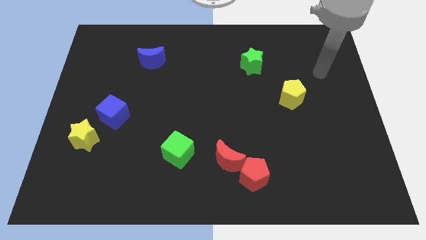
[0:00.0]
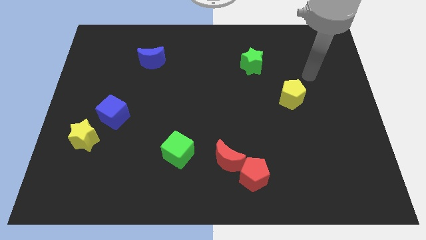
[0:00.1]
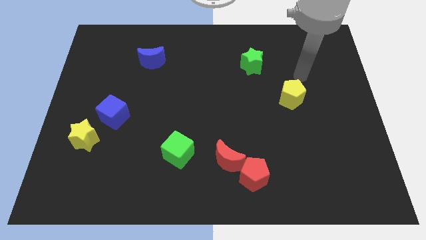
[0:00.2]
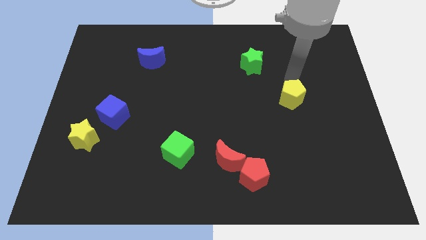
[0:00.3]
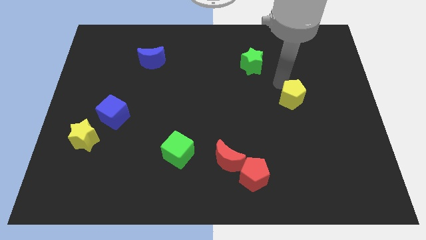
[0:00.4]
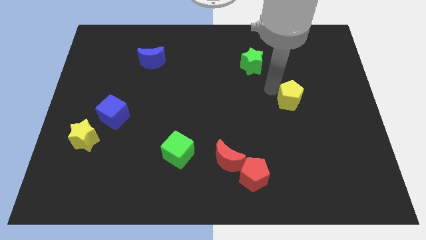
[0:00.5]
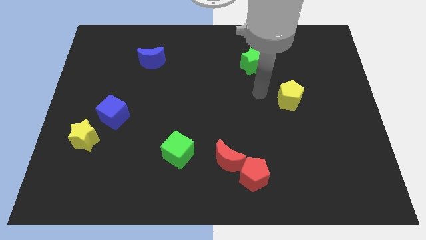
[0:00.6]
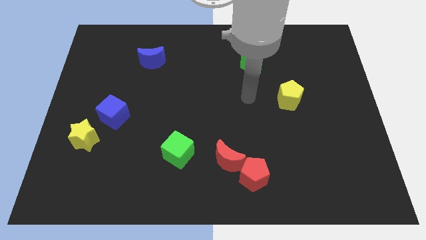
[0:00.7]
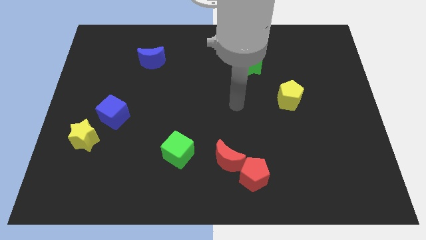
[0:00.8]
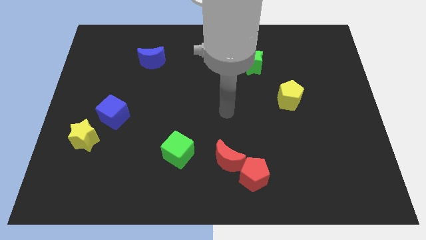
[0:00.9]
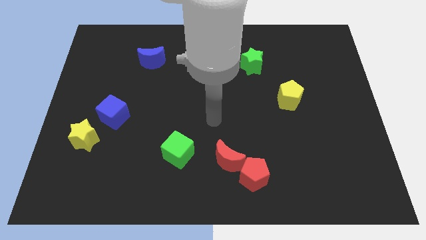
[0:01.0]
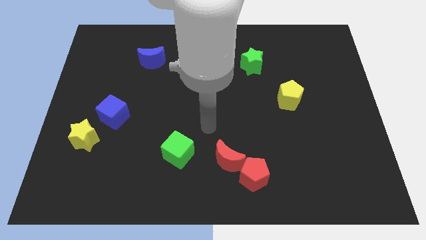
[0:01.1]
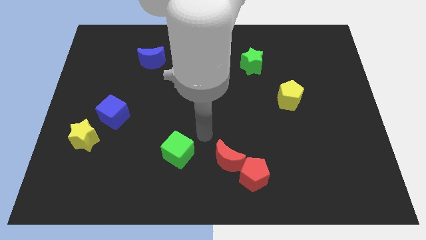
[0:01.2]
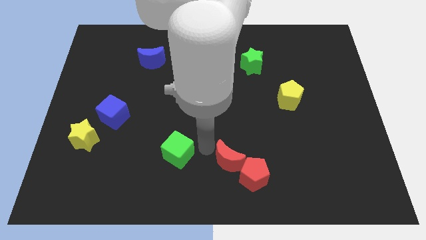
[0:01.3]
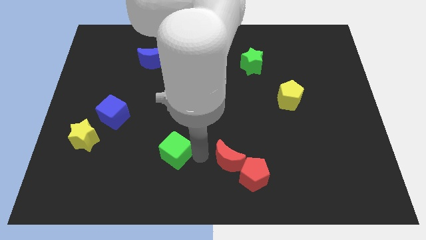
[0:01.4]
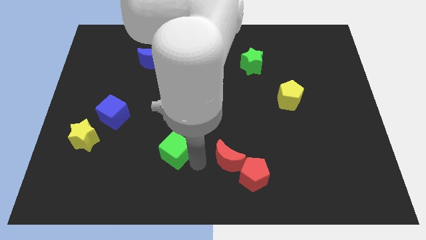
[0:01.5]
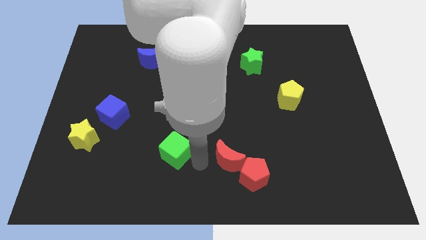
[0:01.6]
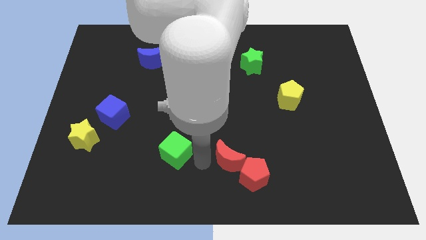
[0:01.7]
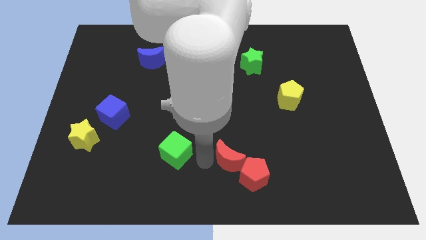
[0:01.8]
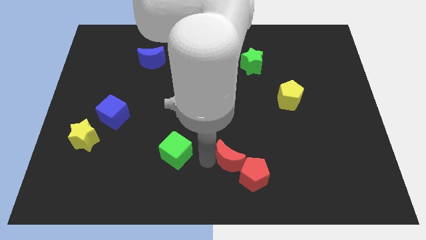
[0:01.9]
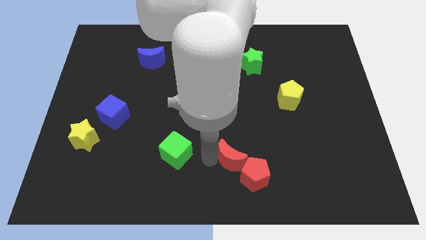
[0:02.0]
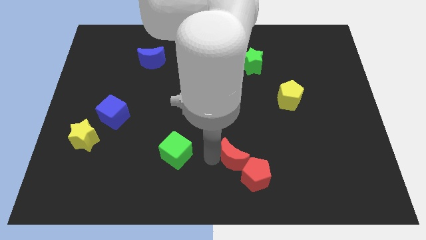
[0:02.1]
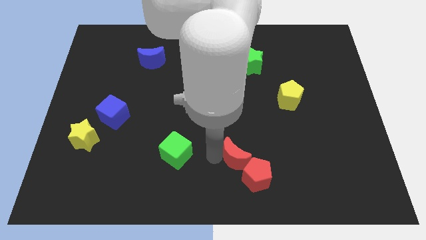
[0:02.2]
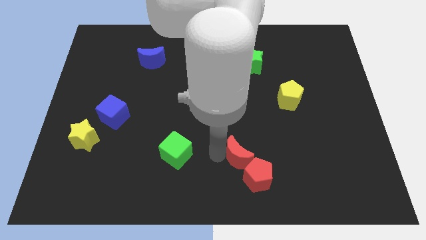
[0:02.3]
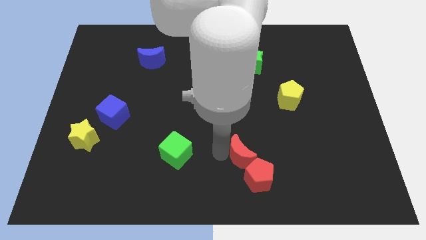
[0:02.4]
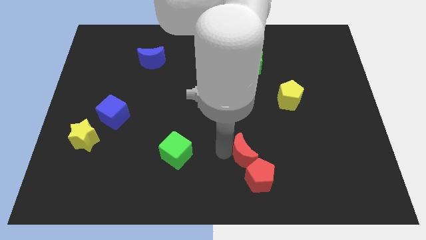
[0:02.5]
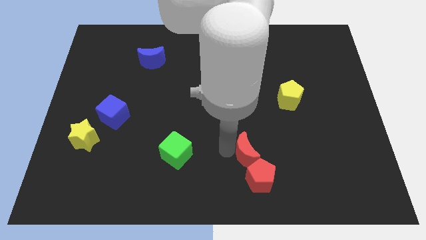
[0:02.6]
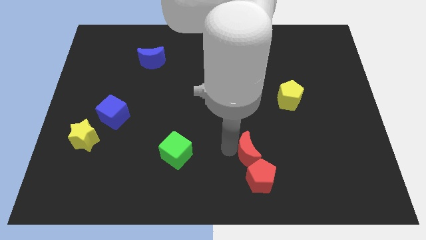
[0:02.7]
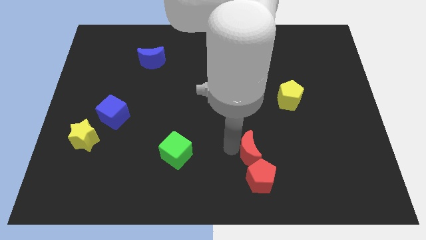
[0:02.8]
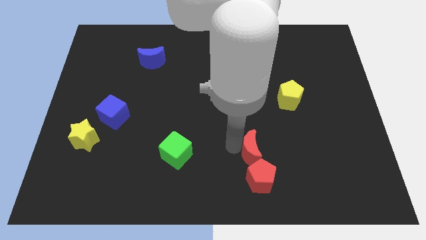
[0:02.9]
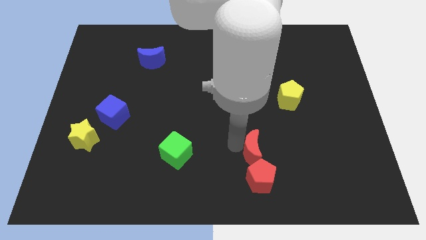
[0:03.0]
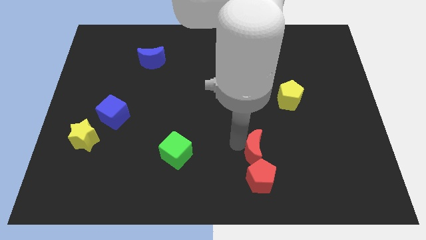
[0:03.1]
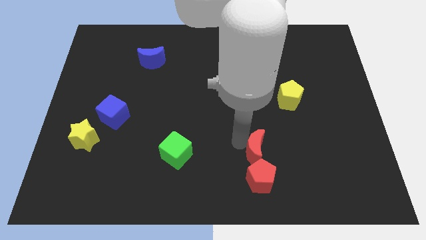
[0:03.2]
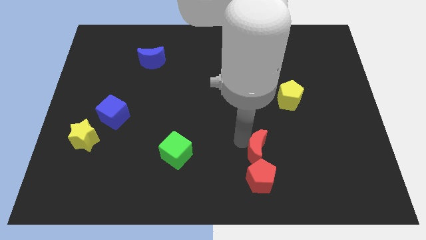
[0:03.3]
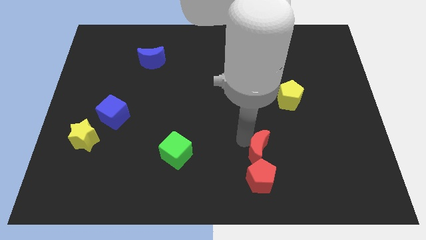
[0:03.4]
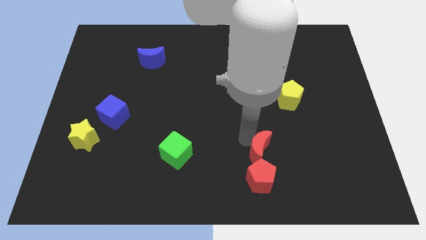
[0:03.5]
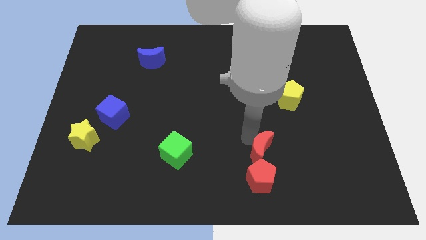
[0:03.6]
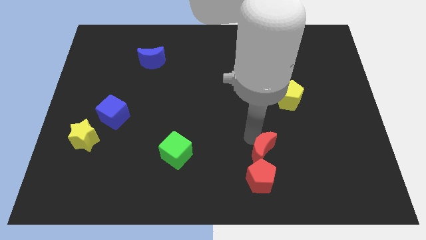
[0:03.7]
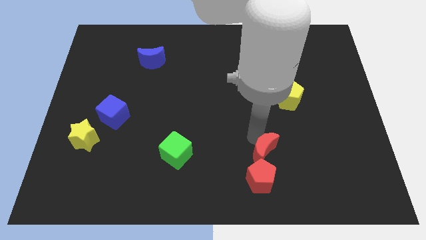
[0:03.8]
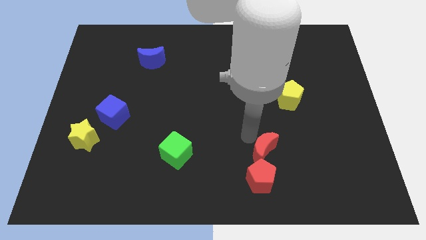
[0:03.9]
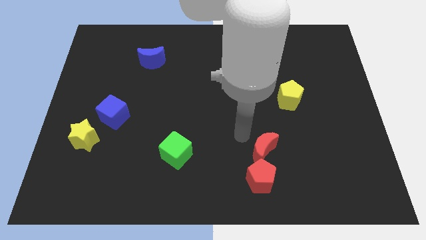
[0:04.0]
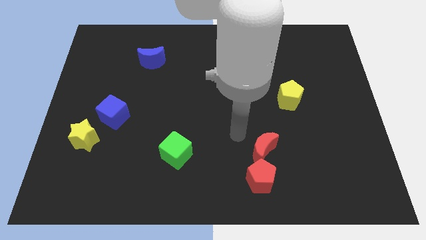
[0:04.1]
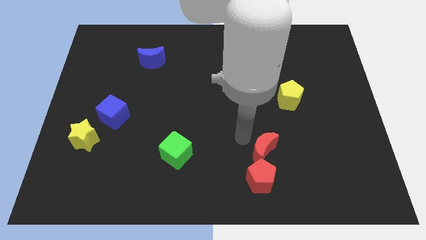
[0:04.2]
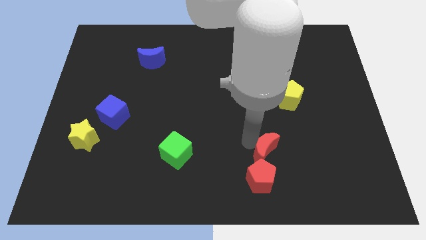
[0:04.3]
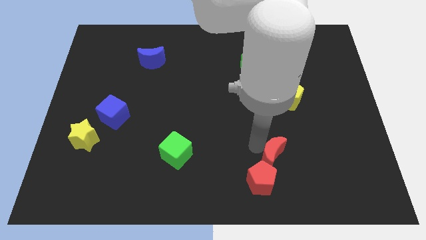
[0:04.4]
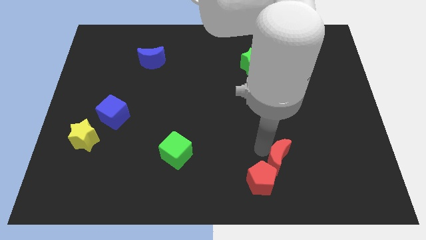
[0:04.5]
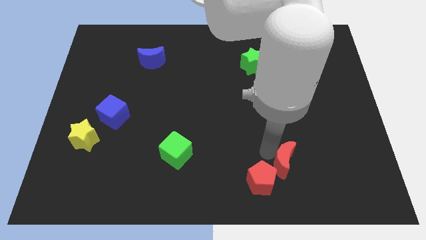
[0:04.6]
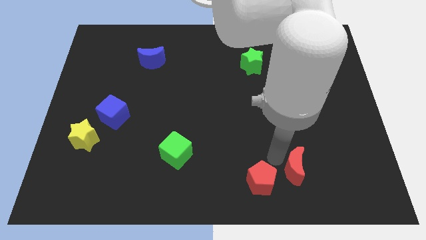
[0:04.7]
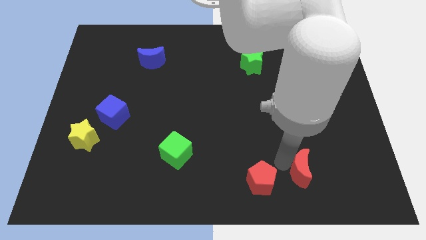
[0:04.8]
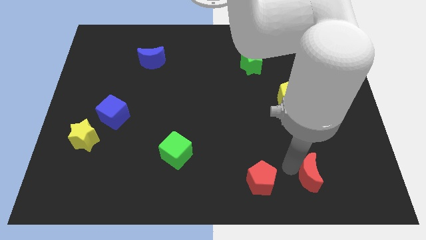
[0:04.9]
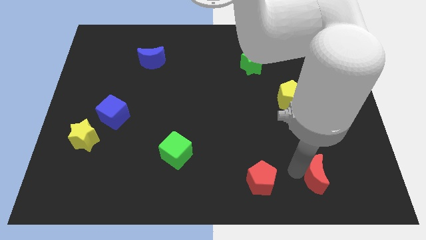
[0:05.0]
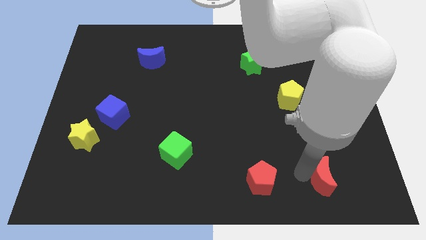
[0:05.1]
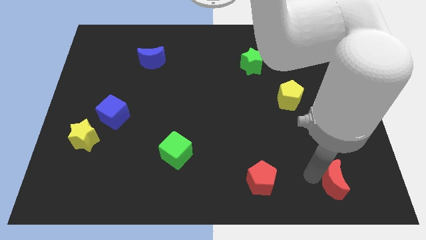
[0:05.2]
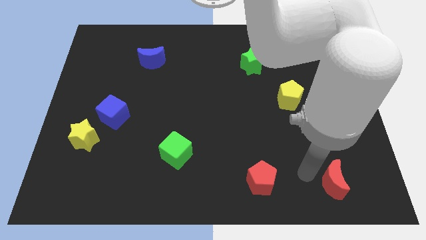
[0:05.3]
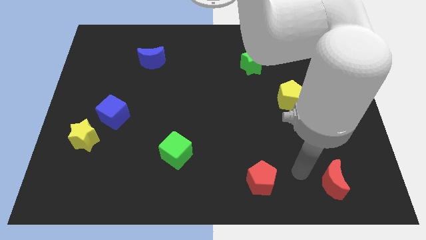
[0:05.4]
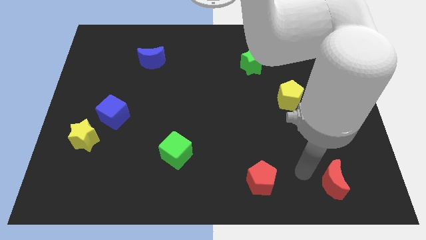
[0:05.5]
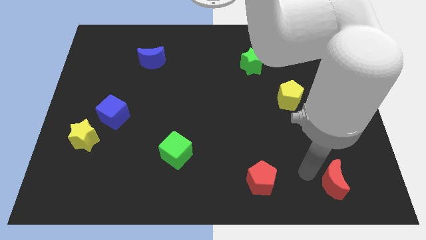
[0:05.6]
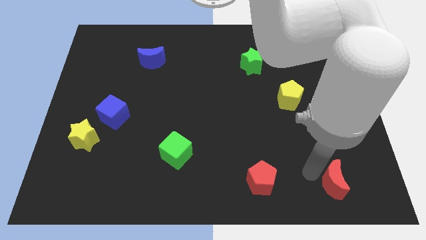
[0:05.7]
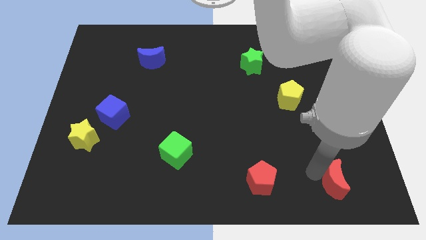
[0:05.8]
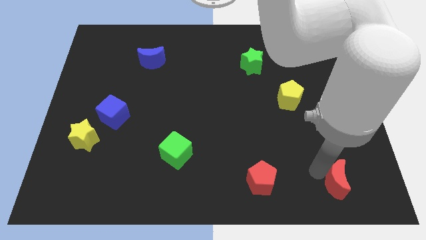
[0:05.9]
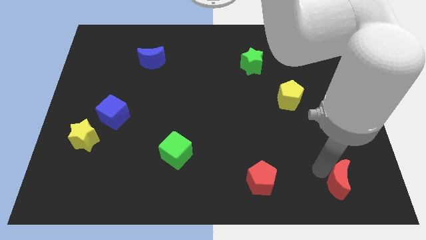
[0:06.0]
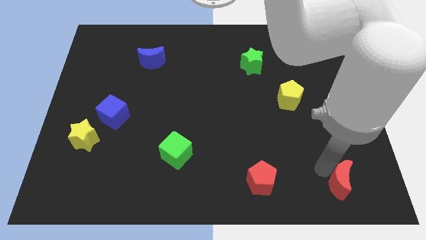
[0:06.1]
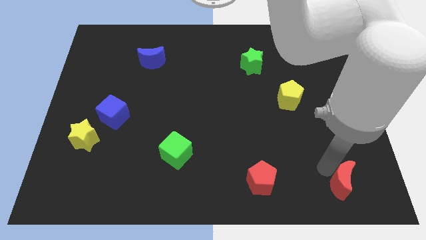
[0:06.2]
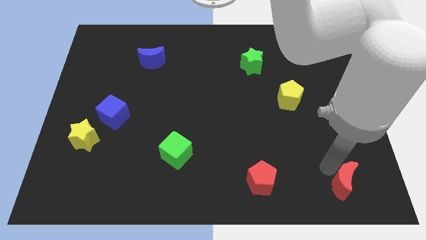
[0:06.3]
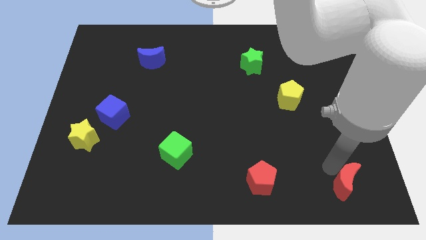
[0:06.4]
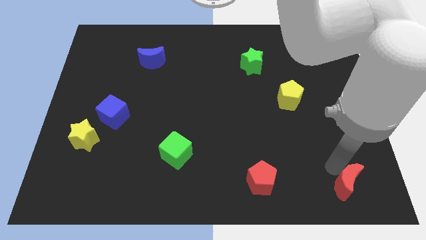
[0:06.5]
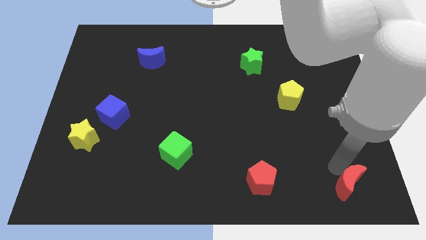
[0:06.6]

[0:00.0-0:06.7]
move the red moon to the lower right corner

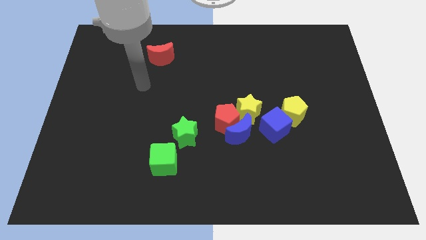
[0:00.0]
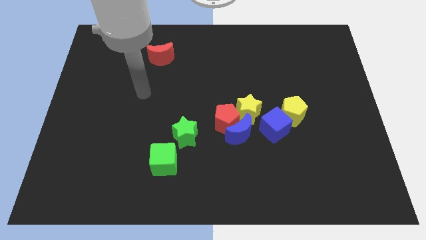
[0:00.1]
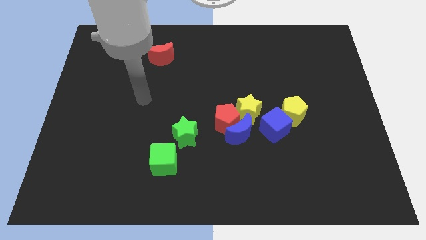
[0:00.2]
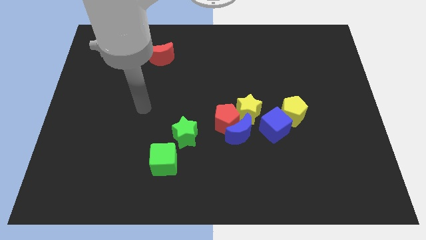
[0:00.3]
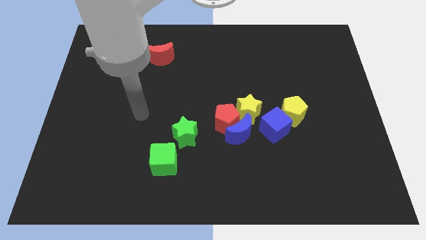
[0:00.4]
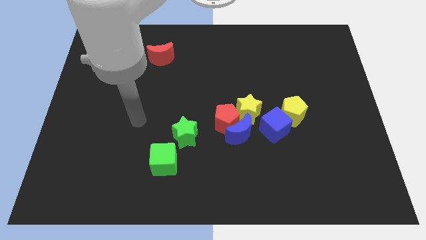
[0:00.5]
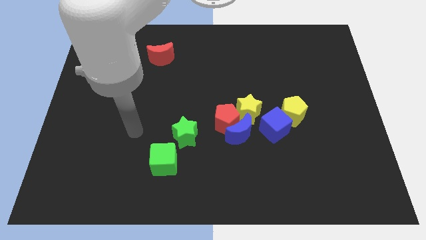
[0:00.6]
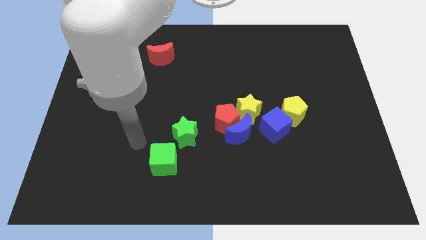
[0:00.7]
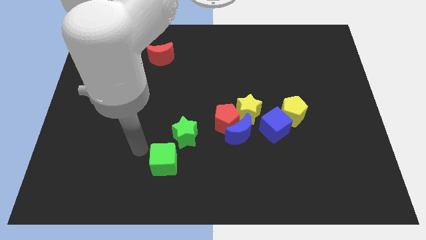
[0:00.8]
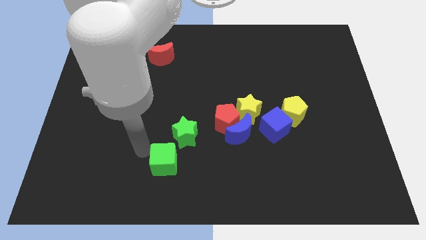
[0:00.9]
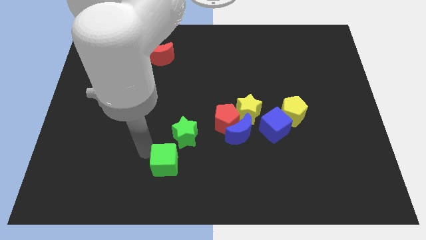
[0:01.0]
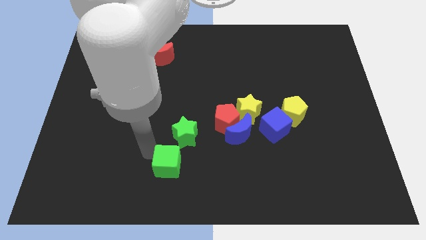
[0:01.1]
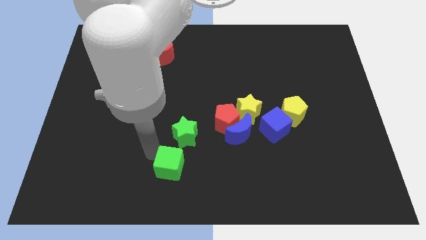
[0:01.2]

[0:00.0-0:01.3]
move the green cube to the bottom
